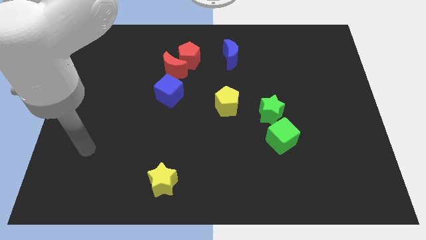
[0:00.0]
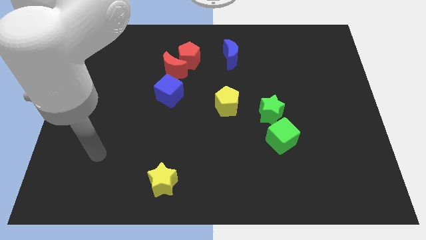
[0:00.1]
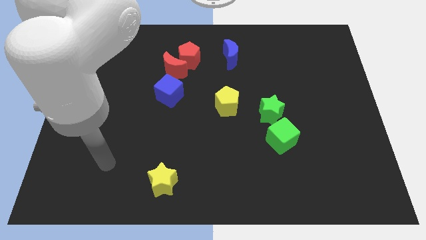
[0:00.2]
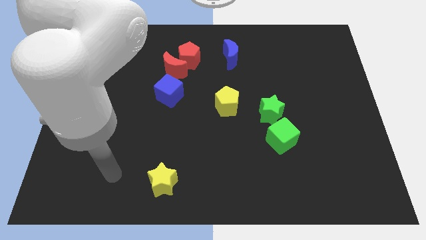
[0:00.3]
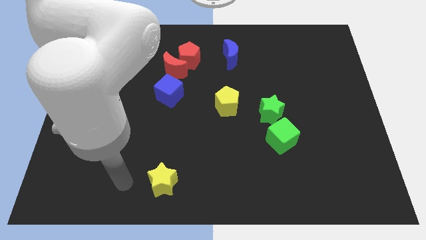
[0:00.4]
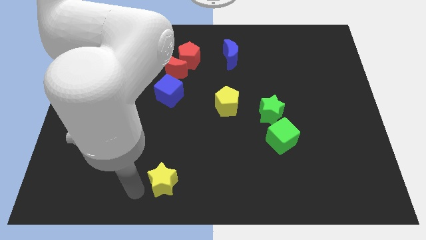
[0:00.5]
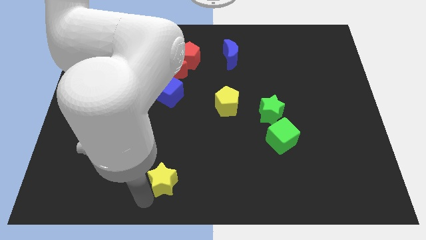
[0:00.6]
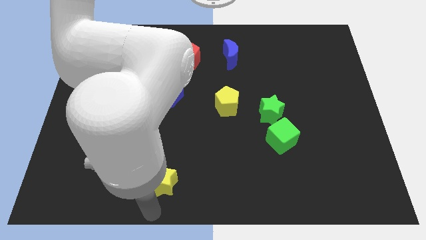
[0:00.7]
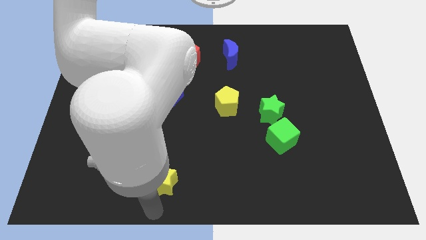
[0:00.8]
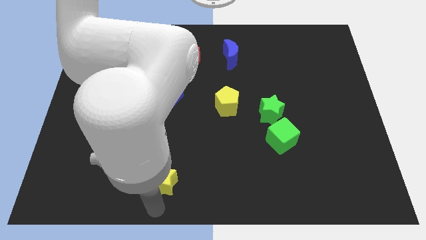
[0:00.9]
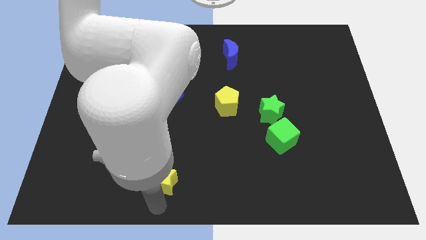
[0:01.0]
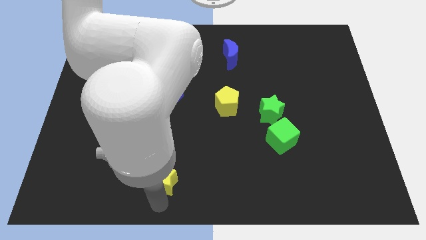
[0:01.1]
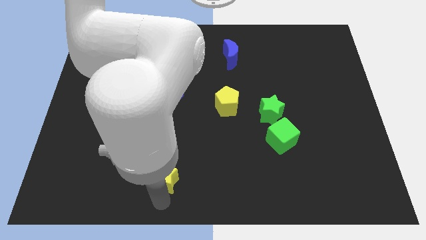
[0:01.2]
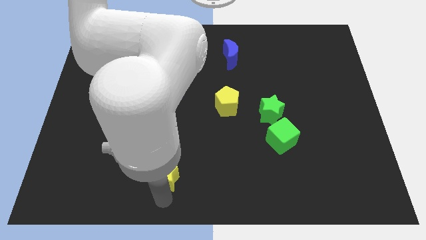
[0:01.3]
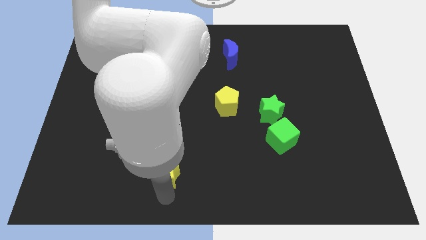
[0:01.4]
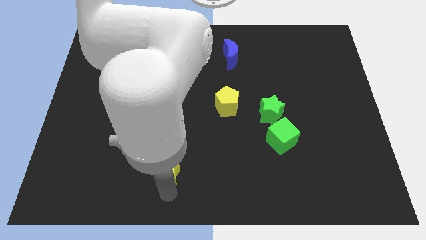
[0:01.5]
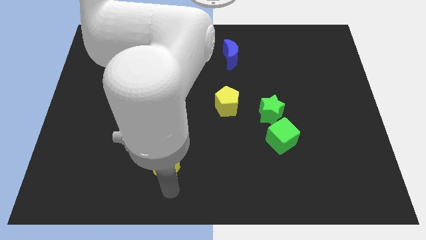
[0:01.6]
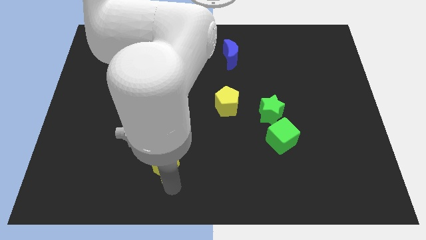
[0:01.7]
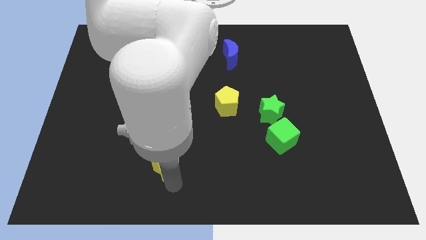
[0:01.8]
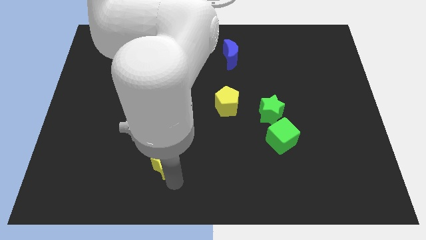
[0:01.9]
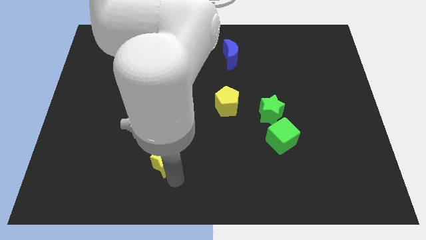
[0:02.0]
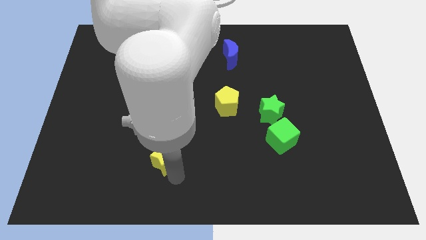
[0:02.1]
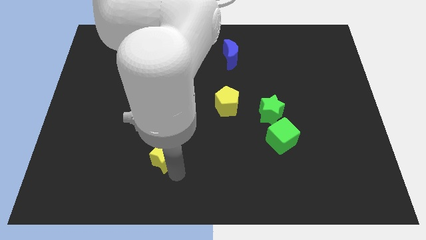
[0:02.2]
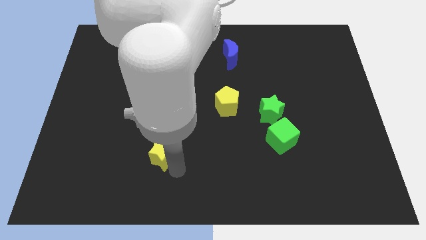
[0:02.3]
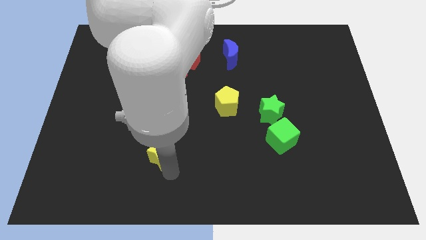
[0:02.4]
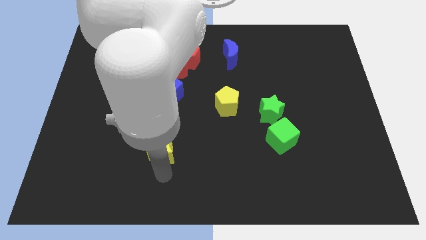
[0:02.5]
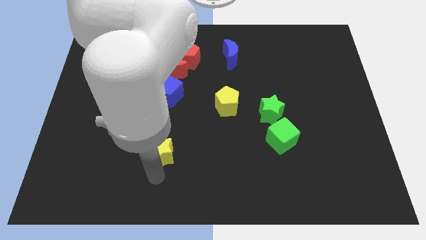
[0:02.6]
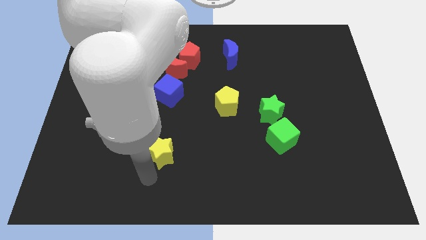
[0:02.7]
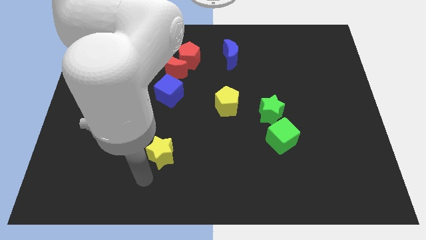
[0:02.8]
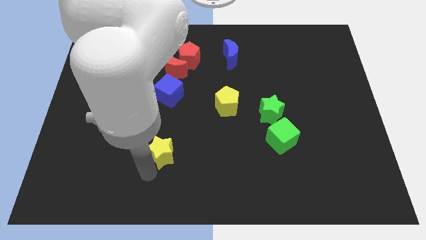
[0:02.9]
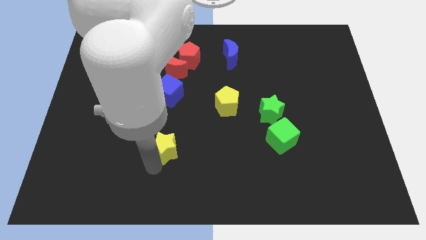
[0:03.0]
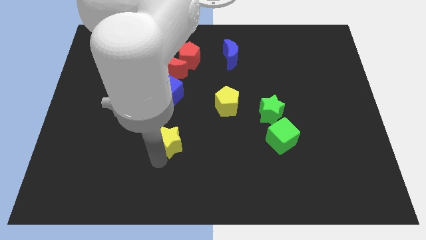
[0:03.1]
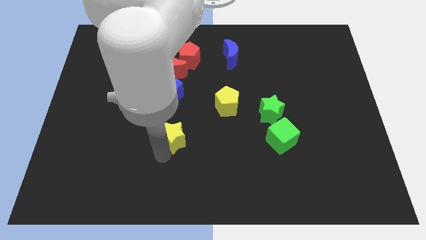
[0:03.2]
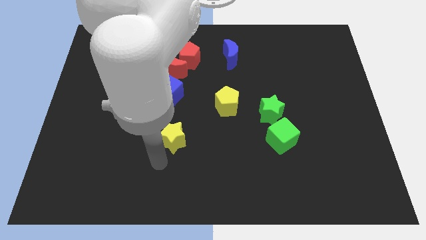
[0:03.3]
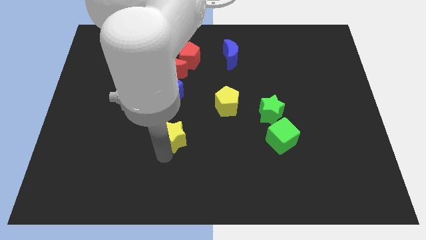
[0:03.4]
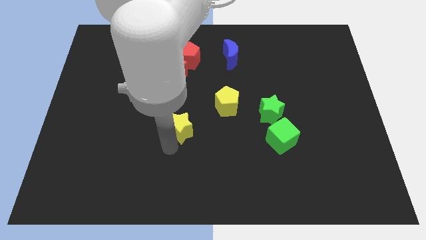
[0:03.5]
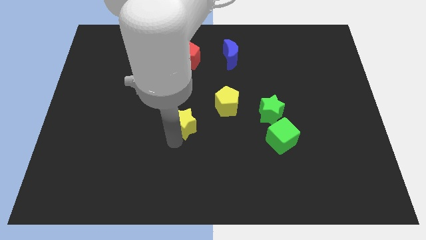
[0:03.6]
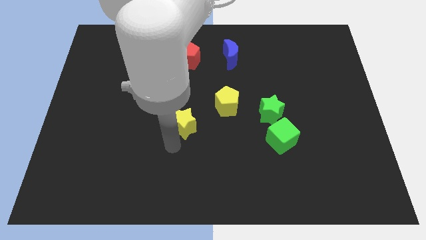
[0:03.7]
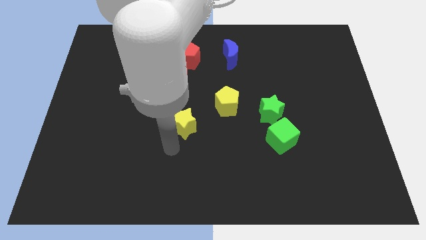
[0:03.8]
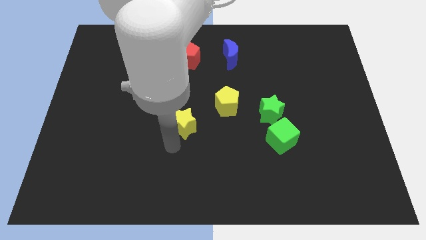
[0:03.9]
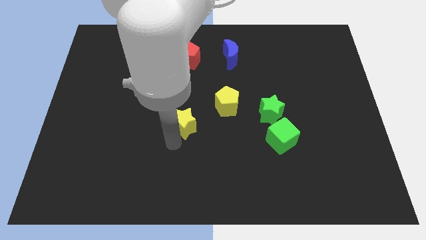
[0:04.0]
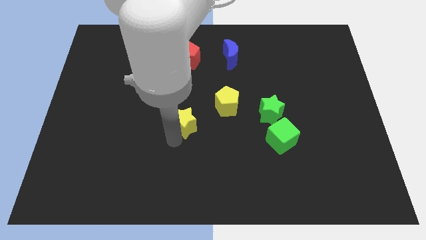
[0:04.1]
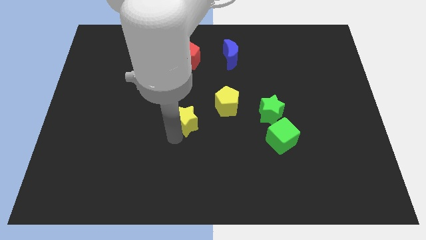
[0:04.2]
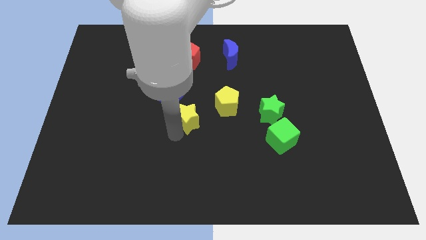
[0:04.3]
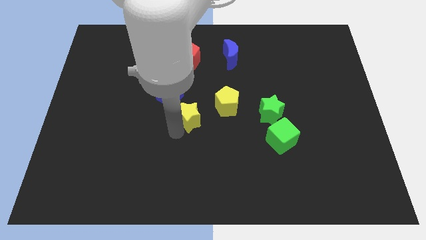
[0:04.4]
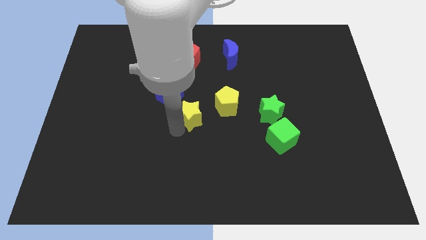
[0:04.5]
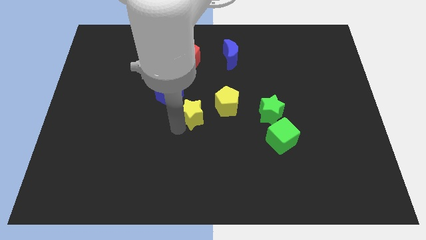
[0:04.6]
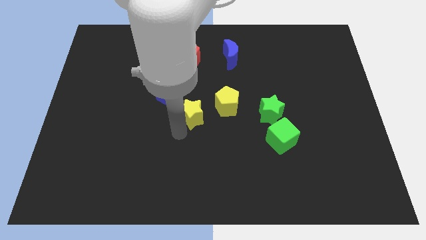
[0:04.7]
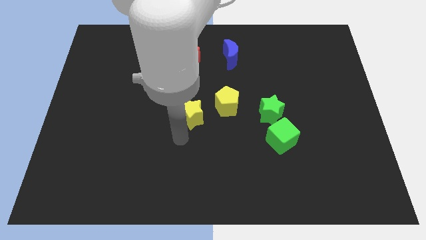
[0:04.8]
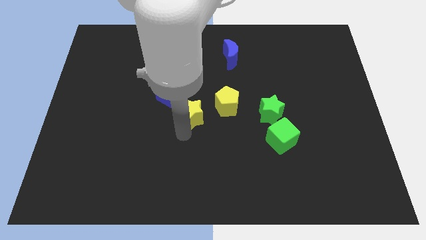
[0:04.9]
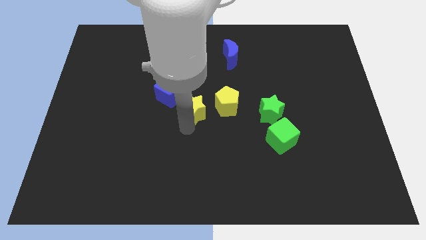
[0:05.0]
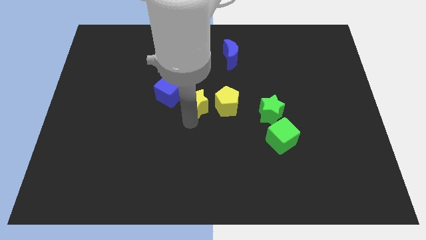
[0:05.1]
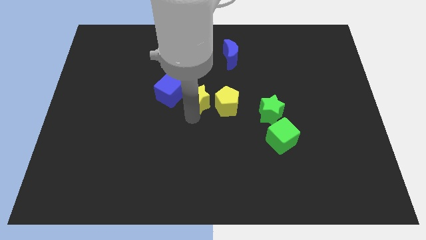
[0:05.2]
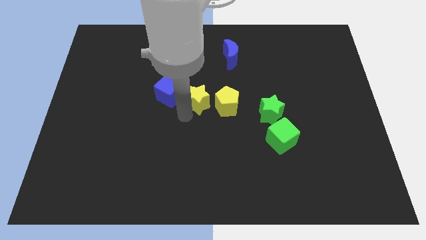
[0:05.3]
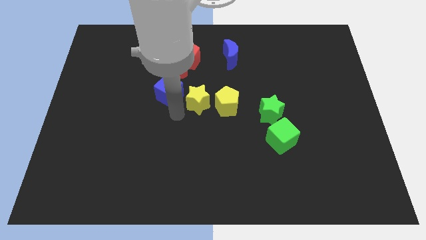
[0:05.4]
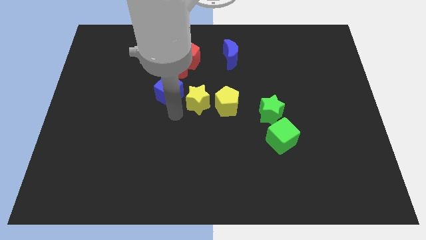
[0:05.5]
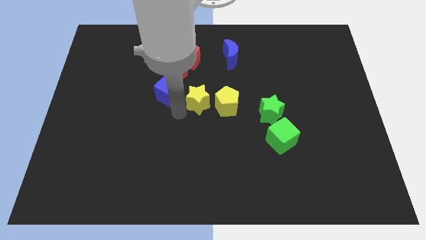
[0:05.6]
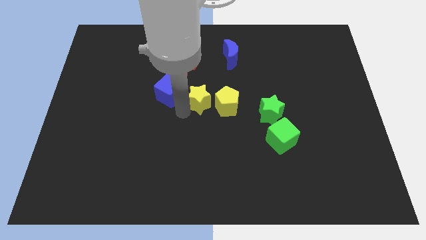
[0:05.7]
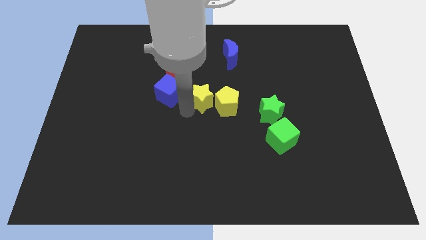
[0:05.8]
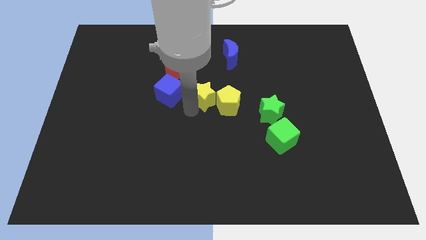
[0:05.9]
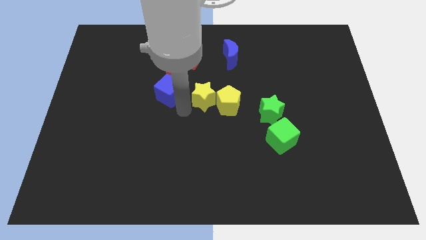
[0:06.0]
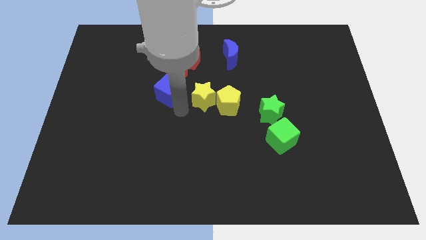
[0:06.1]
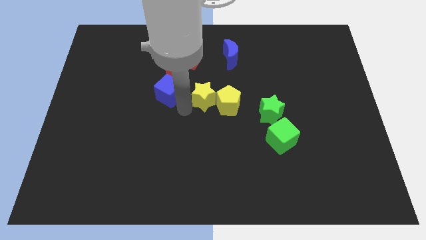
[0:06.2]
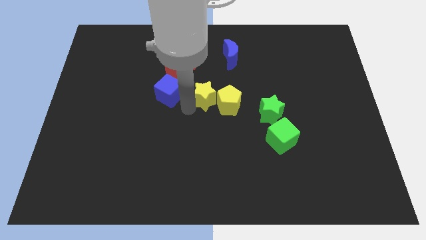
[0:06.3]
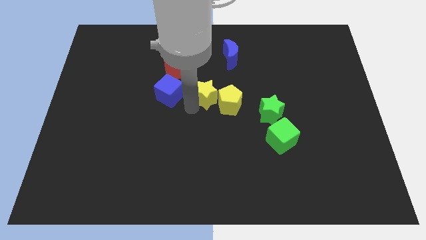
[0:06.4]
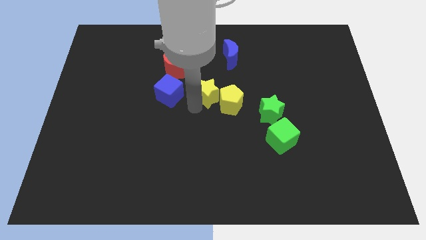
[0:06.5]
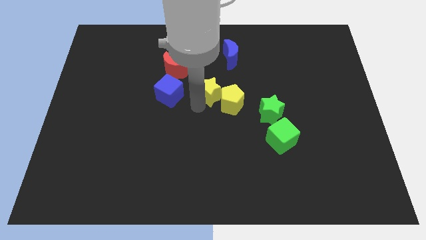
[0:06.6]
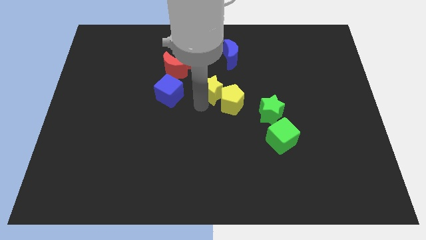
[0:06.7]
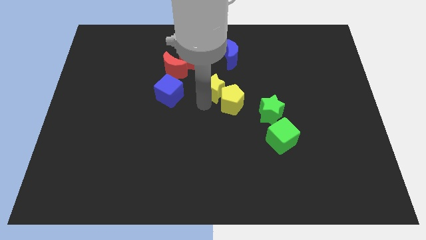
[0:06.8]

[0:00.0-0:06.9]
move the yellow star below the blue moon

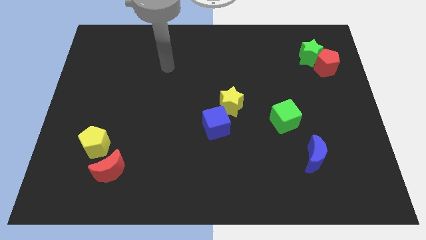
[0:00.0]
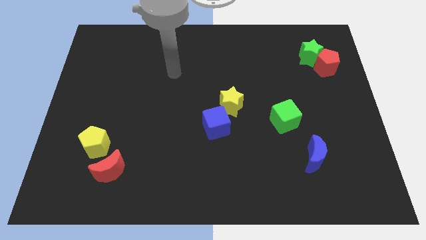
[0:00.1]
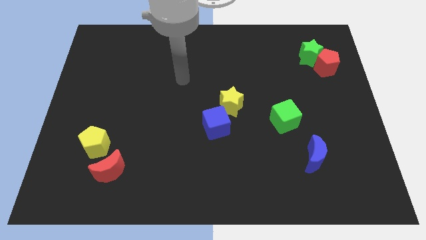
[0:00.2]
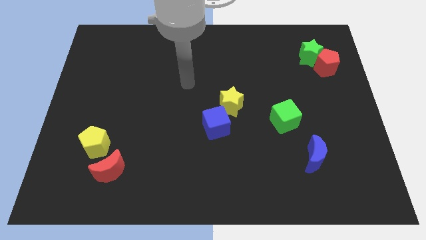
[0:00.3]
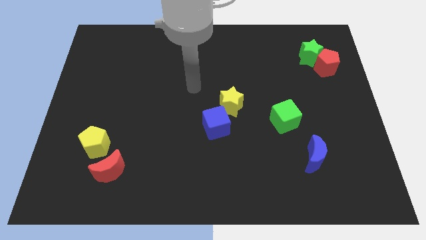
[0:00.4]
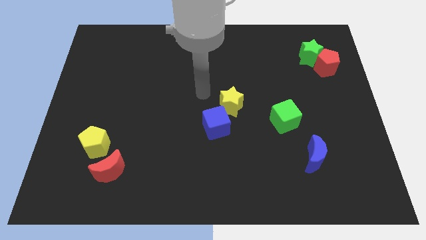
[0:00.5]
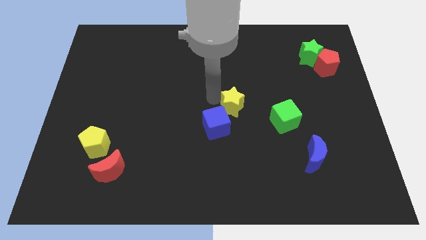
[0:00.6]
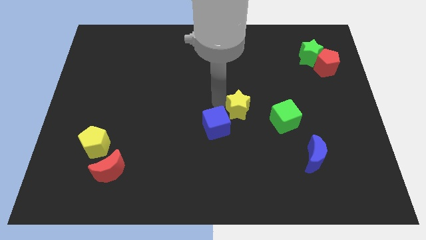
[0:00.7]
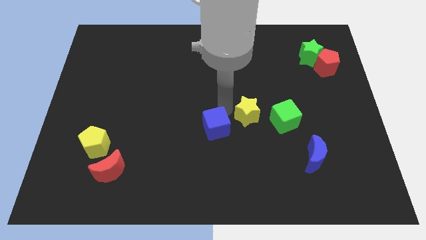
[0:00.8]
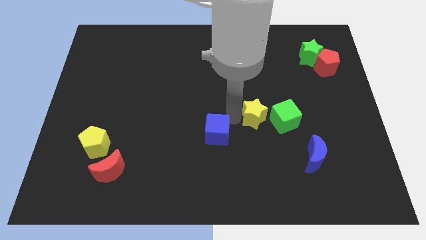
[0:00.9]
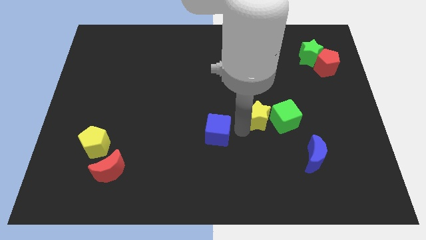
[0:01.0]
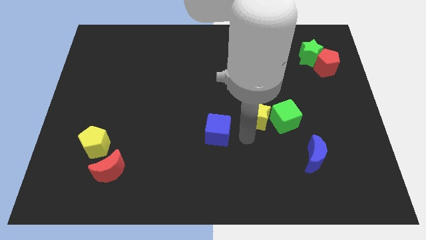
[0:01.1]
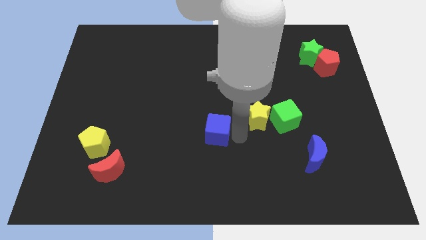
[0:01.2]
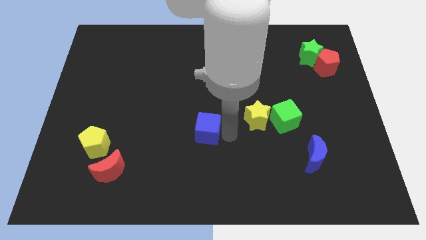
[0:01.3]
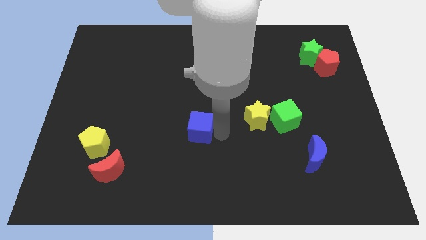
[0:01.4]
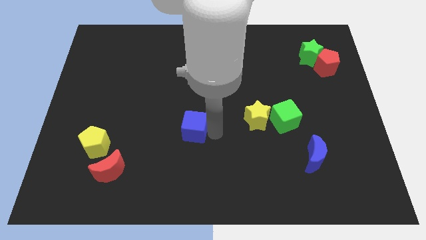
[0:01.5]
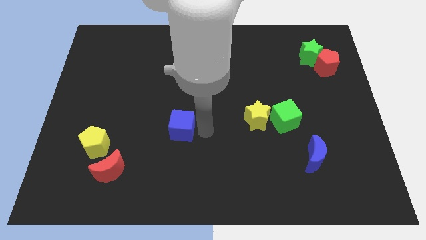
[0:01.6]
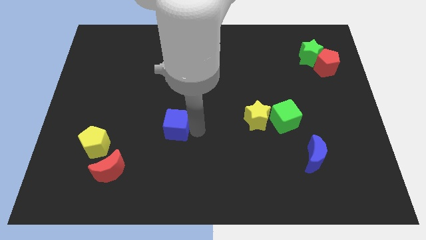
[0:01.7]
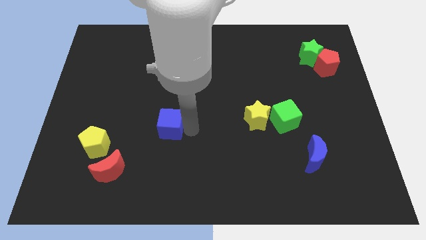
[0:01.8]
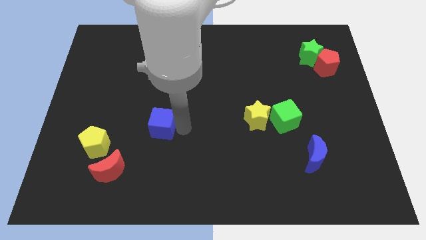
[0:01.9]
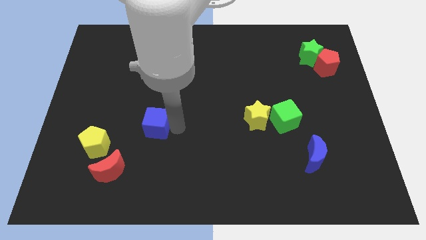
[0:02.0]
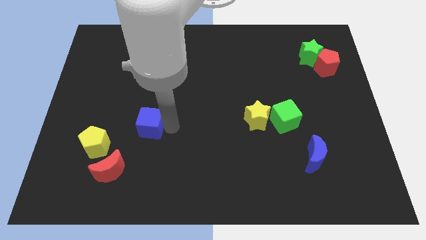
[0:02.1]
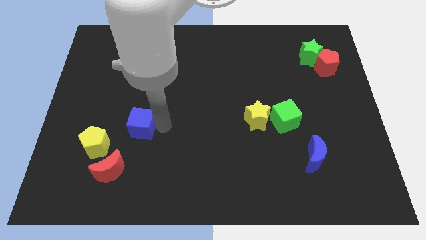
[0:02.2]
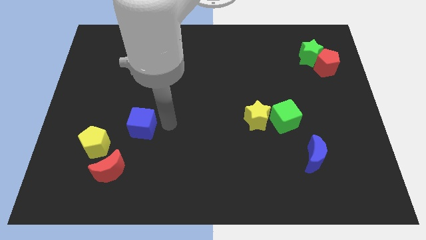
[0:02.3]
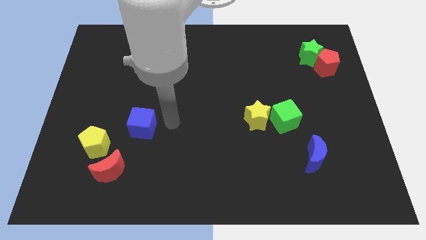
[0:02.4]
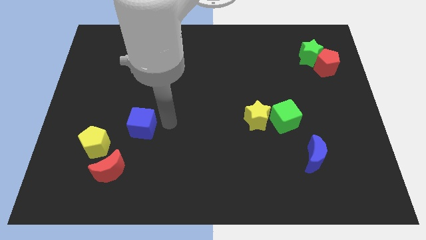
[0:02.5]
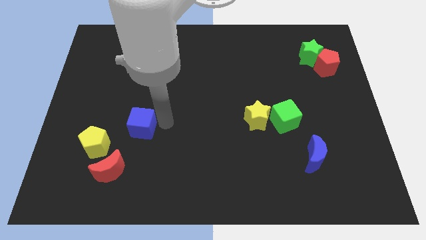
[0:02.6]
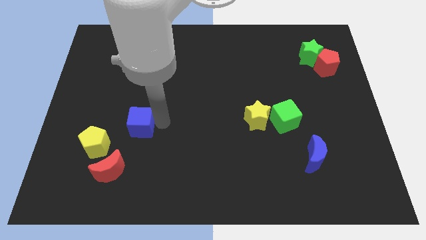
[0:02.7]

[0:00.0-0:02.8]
push the blue cube above the red moon
